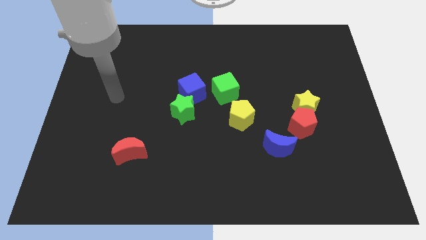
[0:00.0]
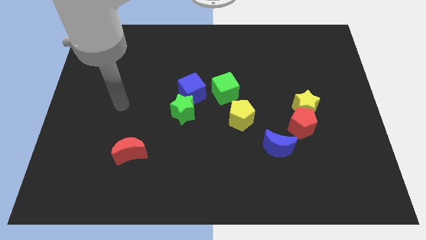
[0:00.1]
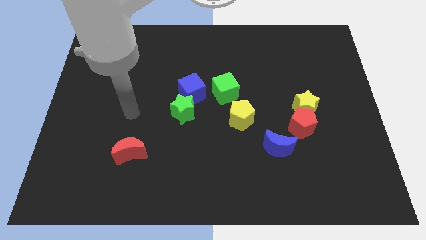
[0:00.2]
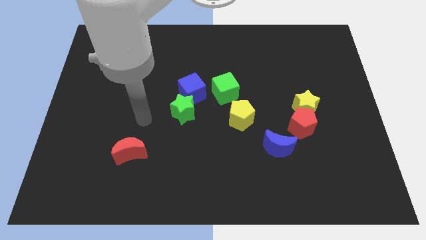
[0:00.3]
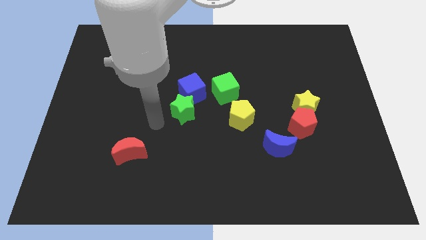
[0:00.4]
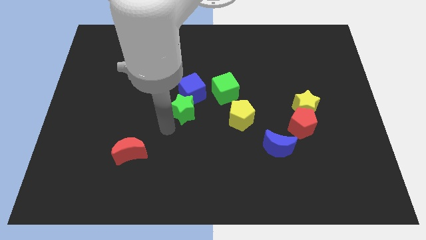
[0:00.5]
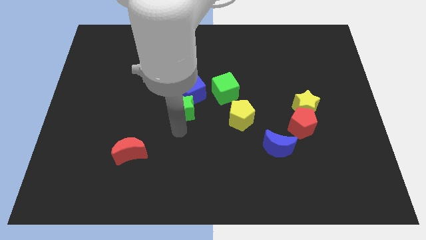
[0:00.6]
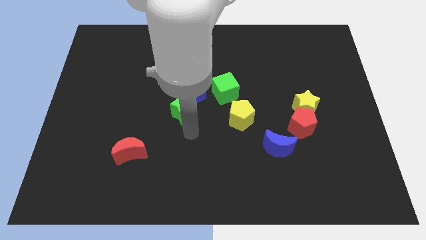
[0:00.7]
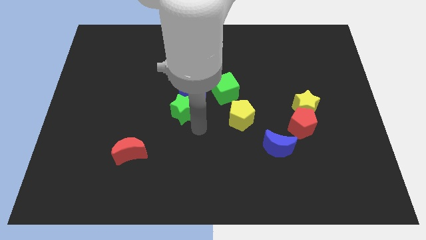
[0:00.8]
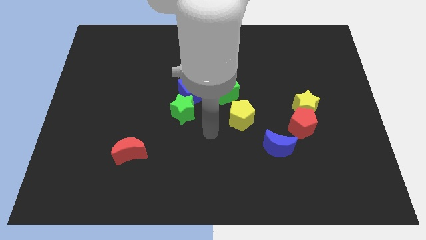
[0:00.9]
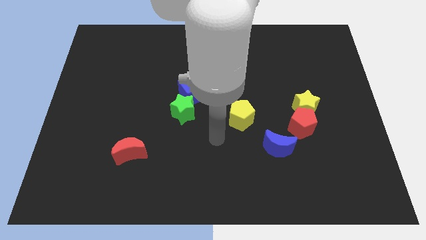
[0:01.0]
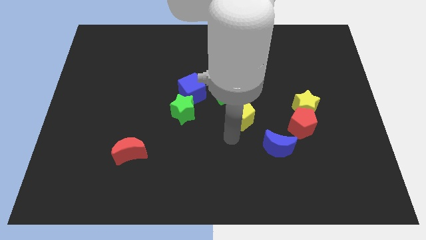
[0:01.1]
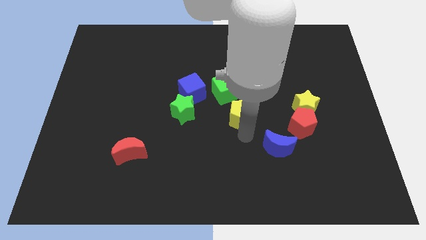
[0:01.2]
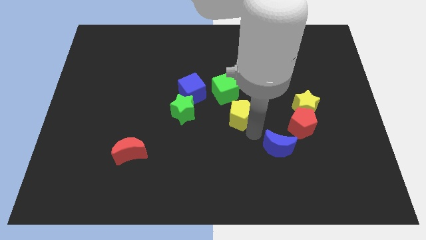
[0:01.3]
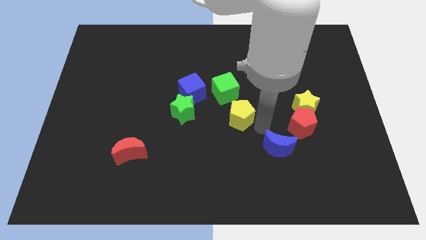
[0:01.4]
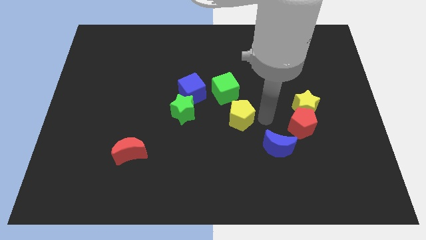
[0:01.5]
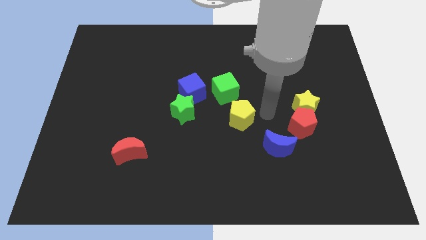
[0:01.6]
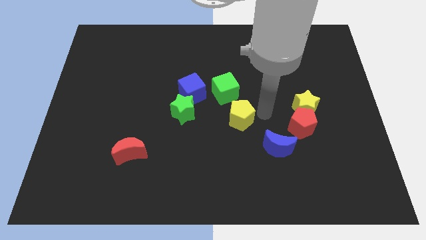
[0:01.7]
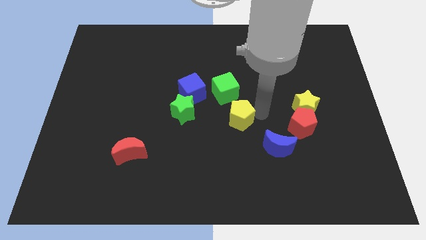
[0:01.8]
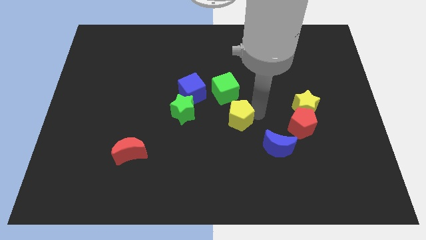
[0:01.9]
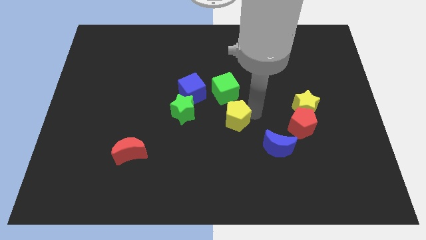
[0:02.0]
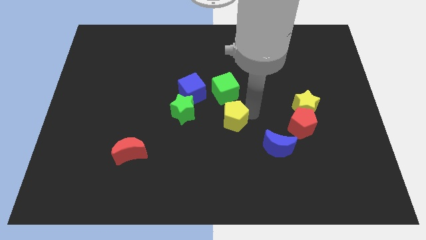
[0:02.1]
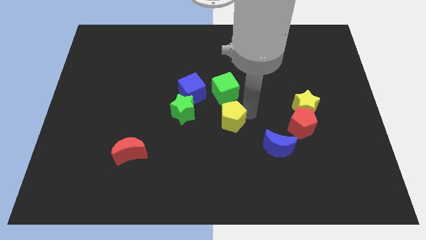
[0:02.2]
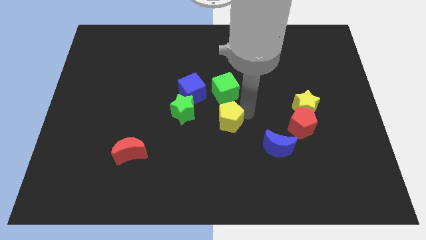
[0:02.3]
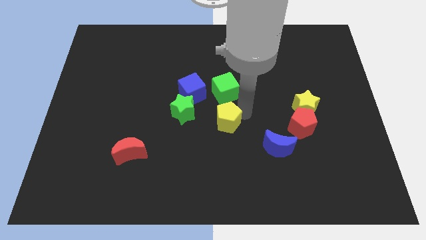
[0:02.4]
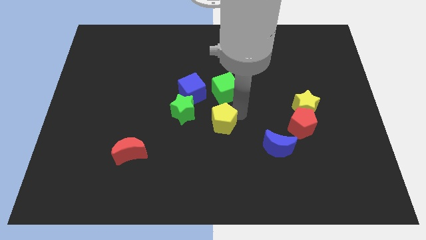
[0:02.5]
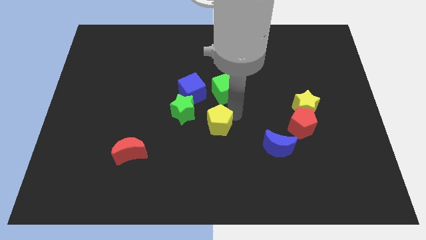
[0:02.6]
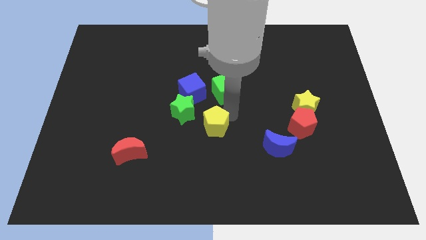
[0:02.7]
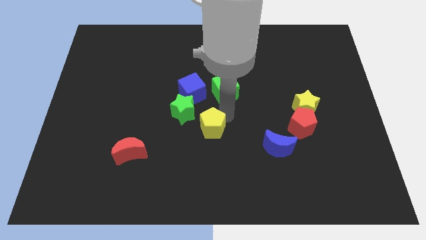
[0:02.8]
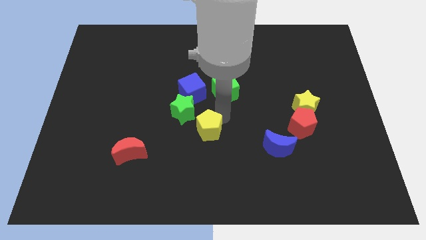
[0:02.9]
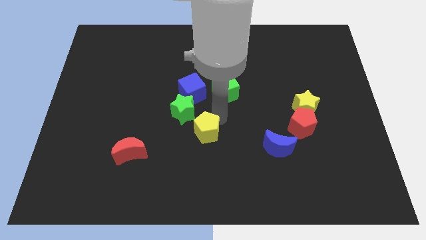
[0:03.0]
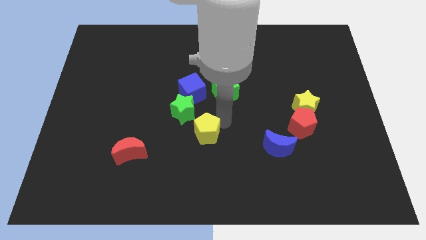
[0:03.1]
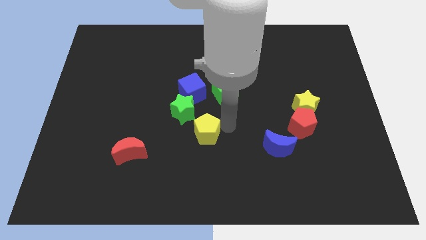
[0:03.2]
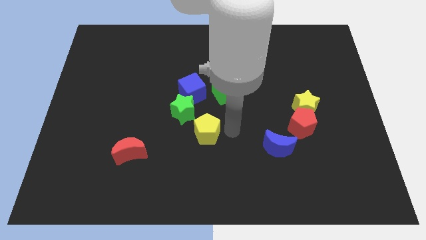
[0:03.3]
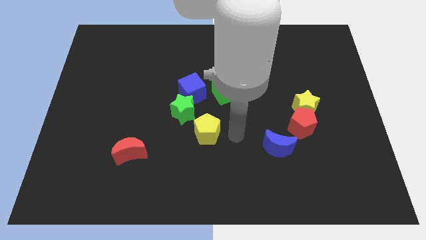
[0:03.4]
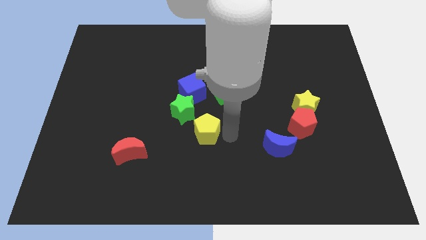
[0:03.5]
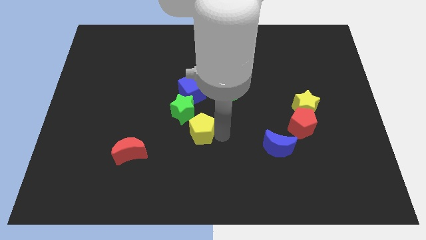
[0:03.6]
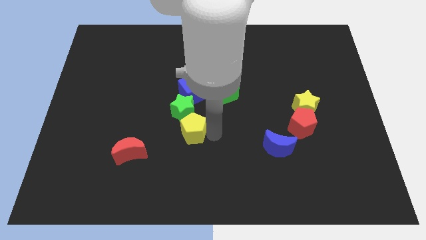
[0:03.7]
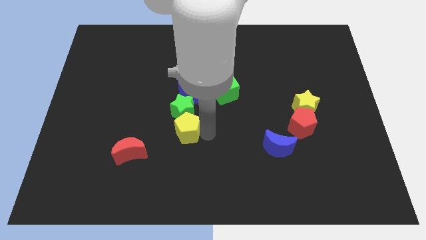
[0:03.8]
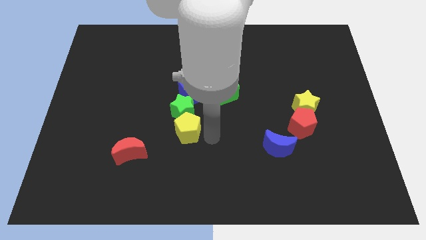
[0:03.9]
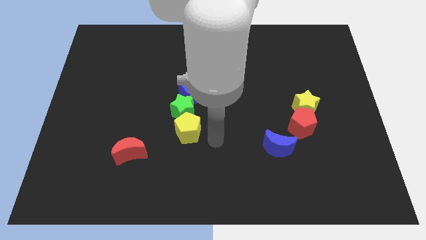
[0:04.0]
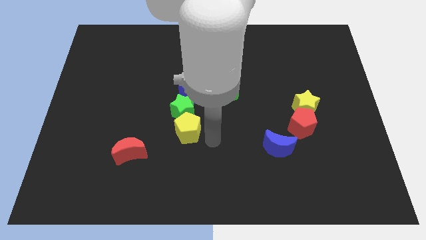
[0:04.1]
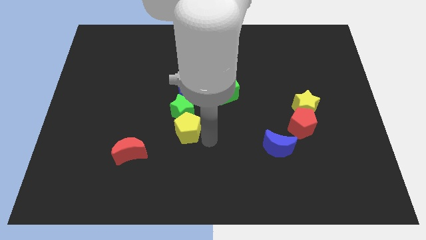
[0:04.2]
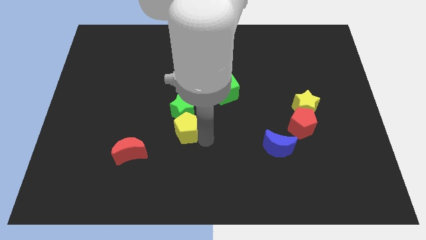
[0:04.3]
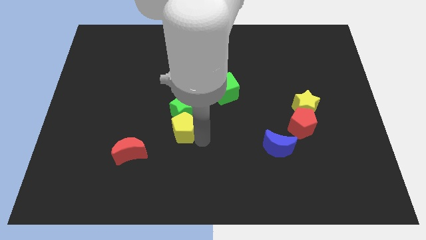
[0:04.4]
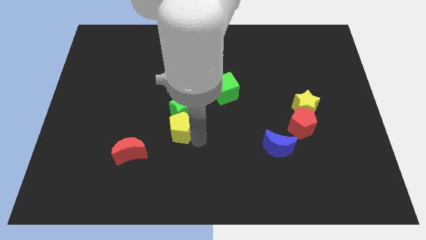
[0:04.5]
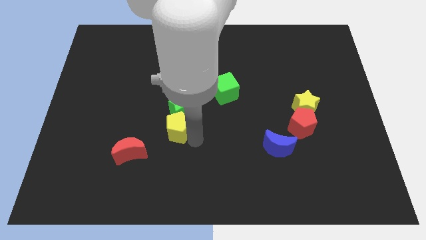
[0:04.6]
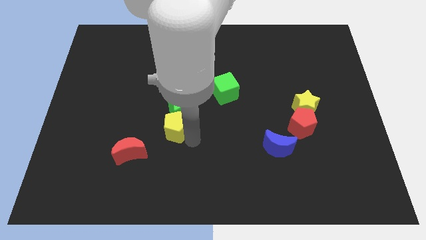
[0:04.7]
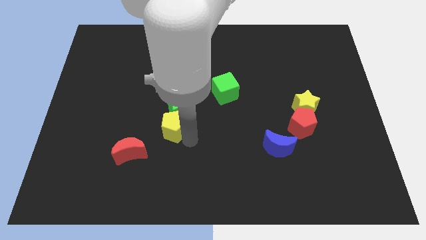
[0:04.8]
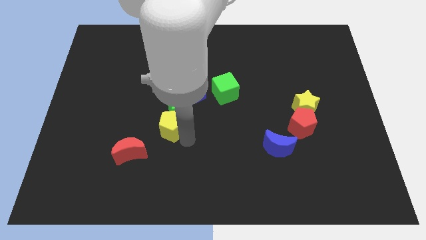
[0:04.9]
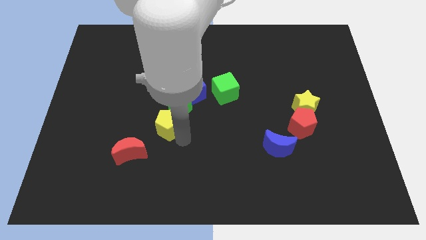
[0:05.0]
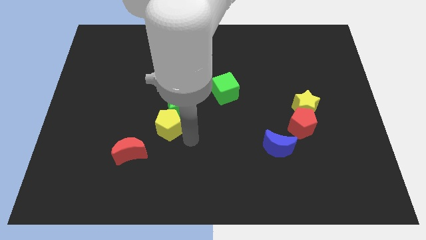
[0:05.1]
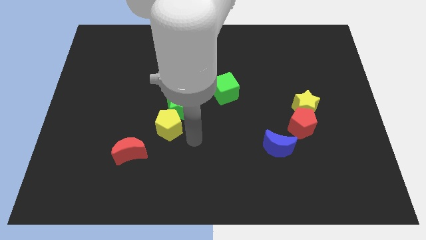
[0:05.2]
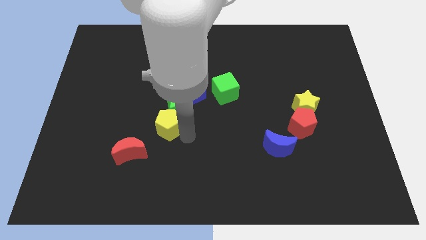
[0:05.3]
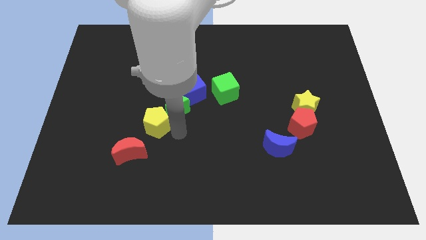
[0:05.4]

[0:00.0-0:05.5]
slide the yellow pentagon to the top of the red moon

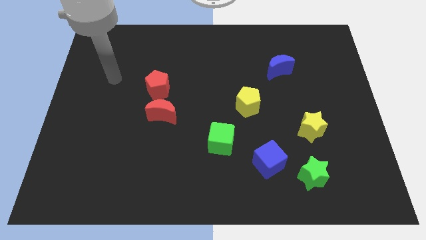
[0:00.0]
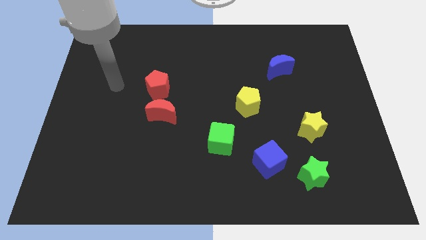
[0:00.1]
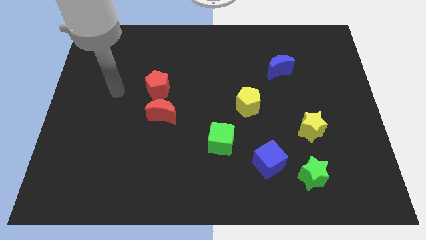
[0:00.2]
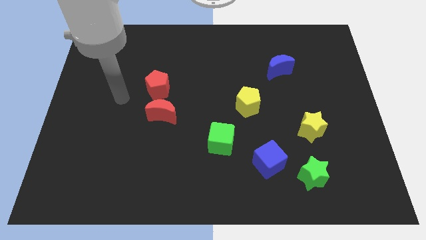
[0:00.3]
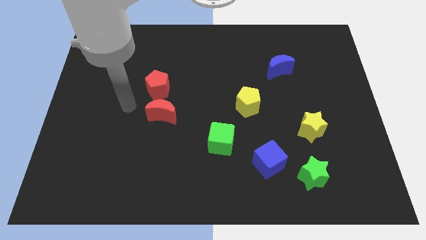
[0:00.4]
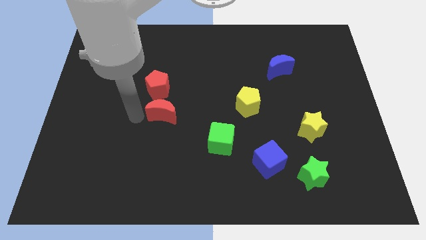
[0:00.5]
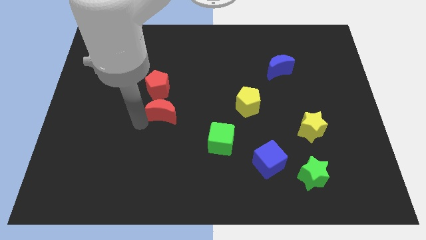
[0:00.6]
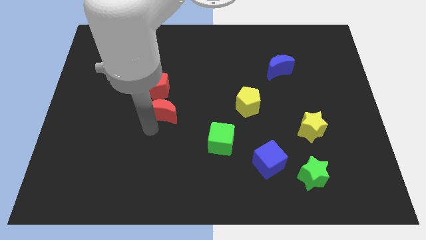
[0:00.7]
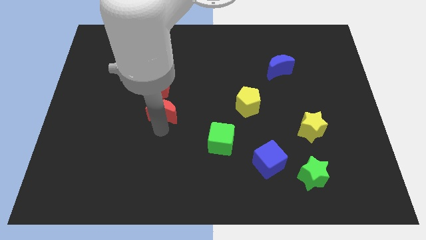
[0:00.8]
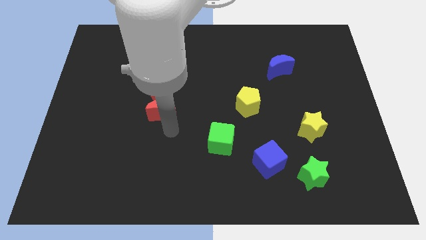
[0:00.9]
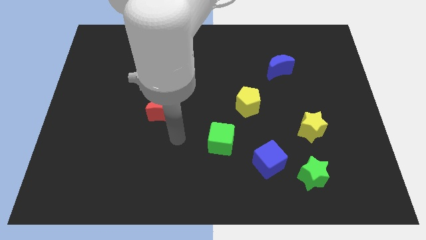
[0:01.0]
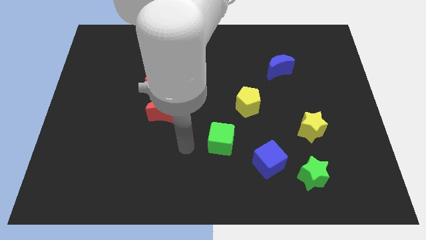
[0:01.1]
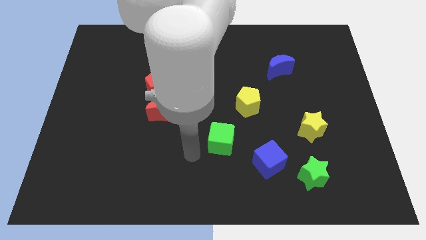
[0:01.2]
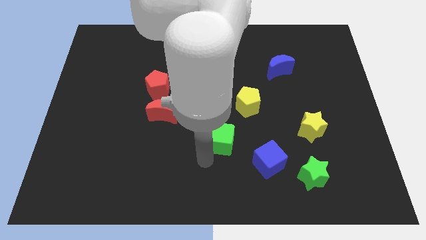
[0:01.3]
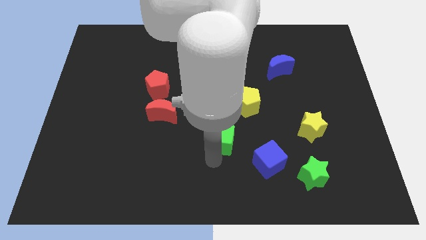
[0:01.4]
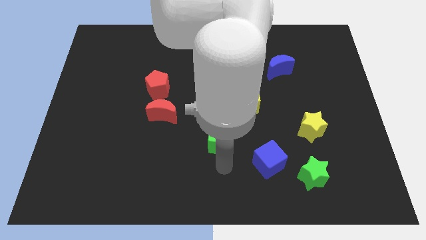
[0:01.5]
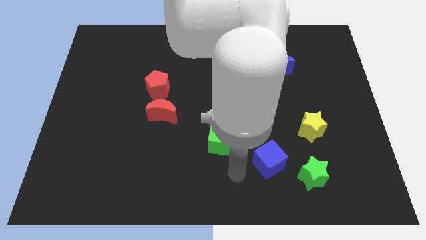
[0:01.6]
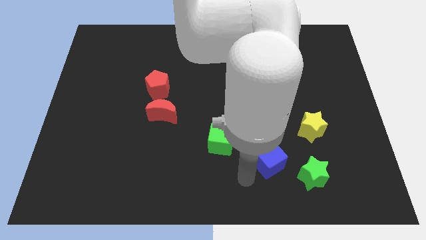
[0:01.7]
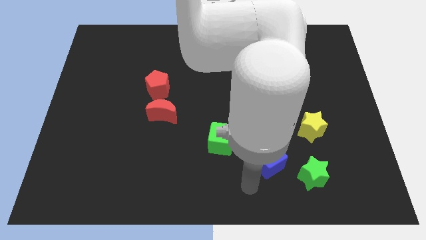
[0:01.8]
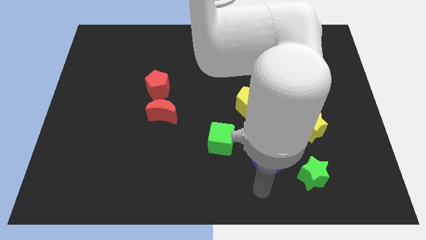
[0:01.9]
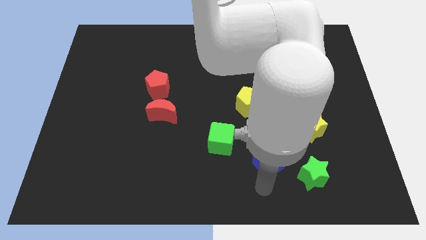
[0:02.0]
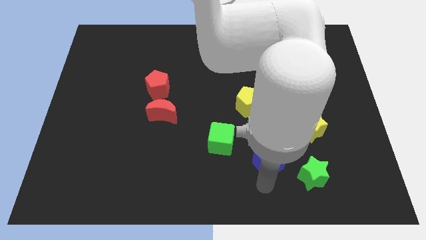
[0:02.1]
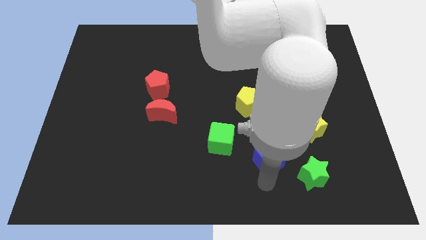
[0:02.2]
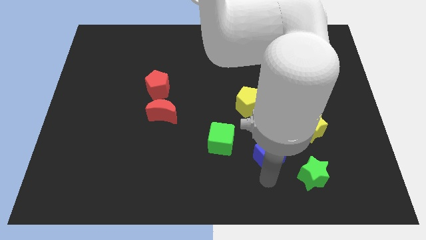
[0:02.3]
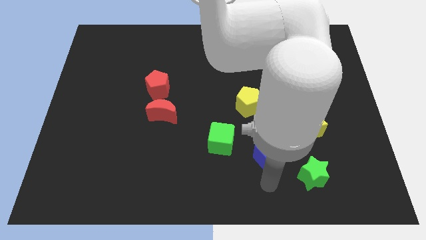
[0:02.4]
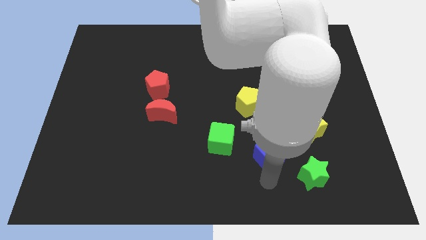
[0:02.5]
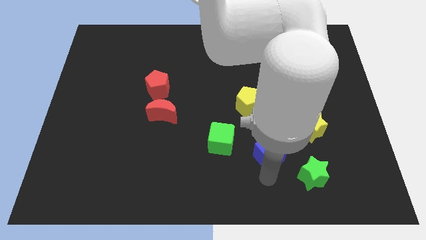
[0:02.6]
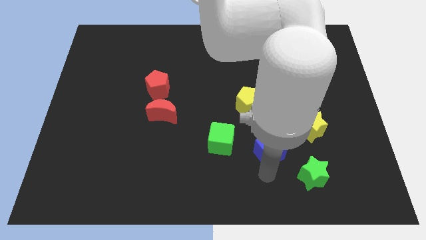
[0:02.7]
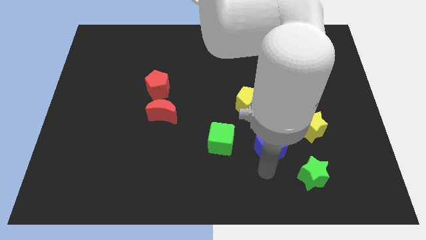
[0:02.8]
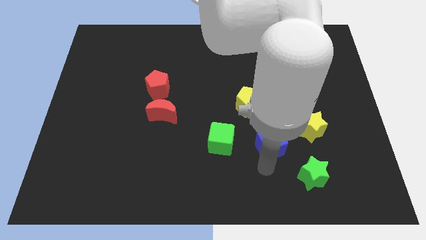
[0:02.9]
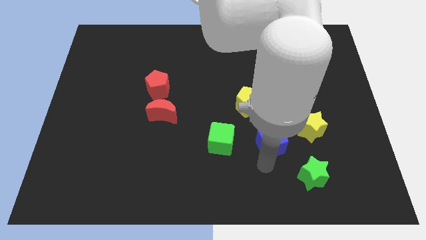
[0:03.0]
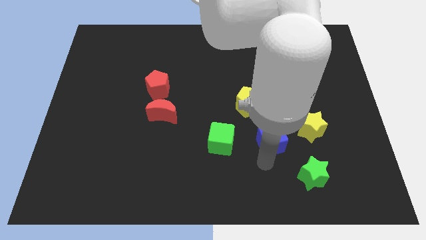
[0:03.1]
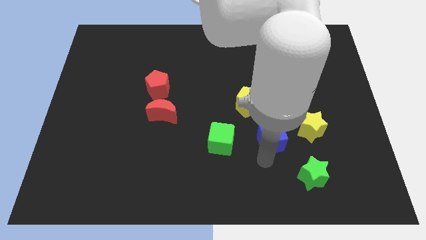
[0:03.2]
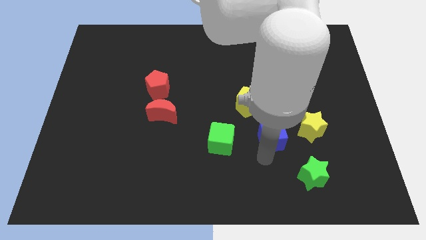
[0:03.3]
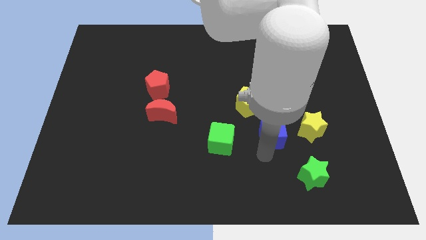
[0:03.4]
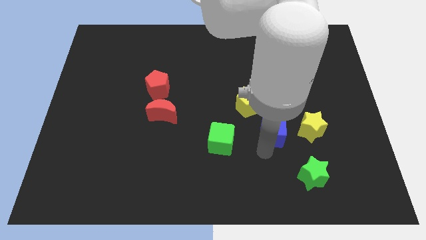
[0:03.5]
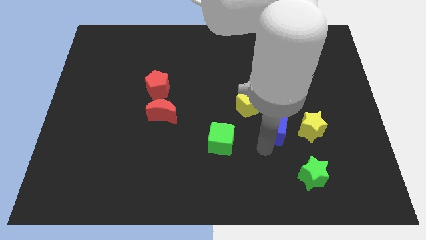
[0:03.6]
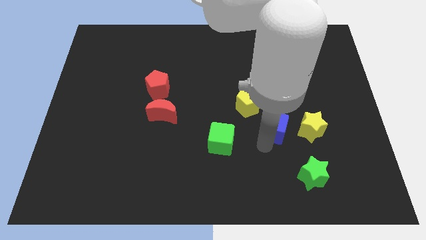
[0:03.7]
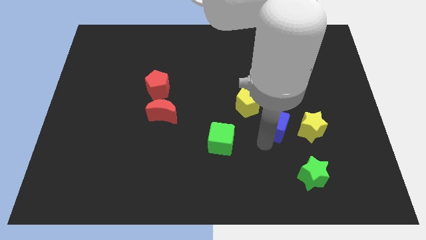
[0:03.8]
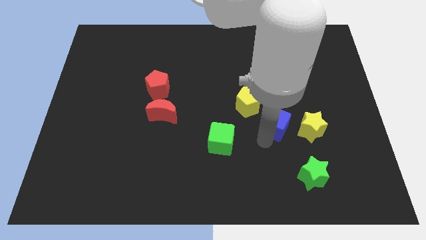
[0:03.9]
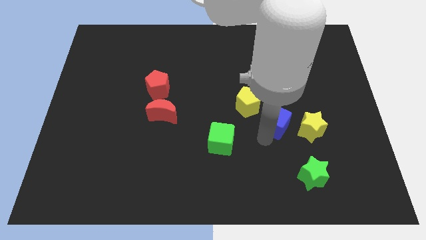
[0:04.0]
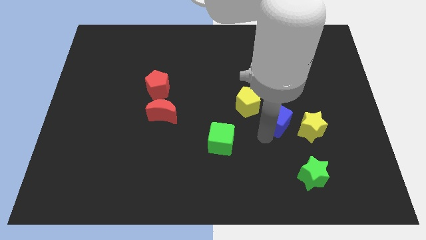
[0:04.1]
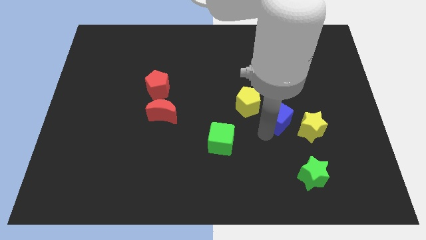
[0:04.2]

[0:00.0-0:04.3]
slide the blue cube to the right of the yellow pentagon
